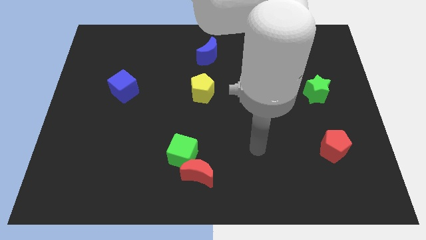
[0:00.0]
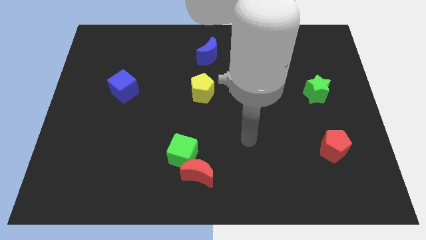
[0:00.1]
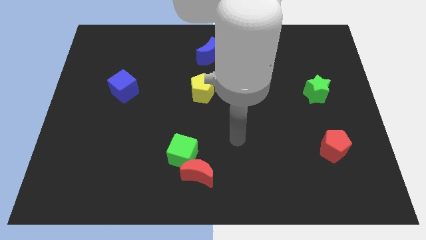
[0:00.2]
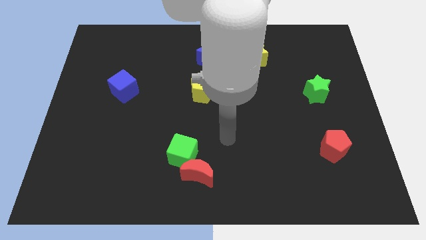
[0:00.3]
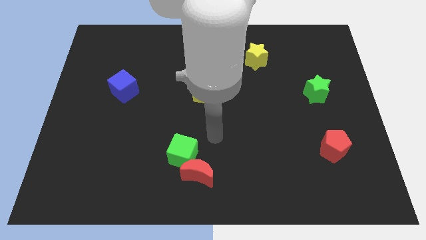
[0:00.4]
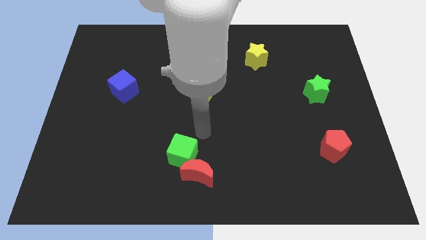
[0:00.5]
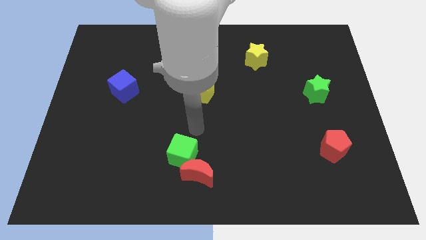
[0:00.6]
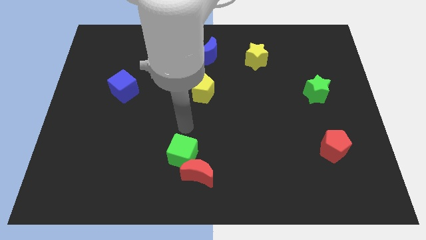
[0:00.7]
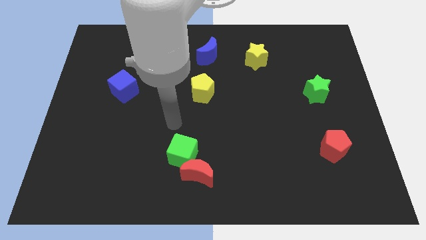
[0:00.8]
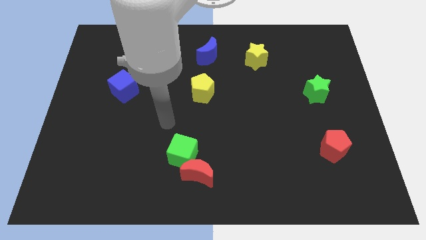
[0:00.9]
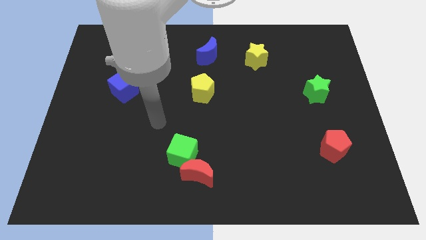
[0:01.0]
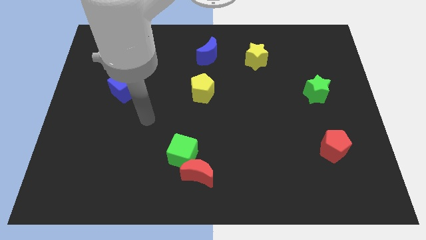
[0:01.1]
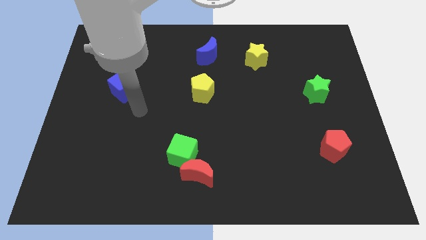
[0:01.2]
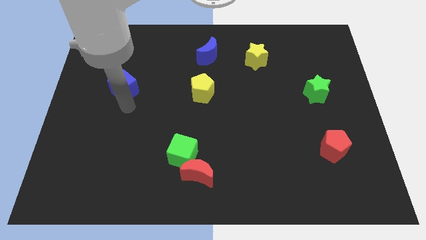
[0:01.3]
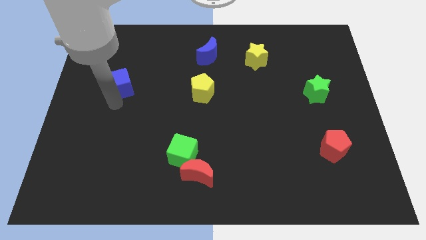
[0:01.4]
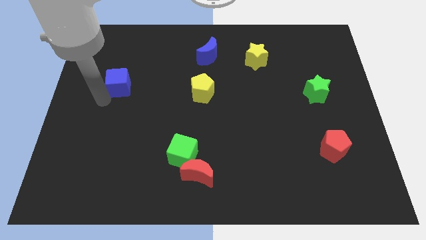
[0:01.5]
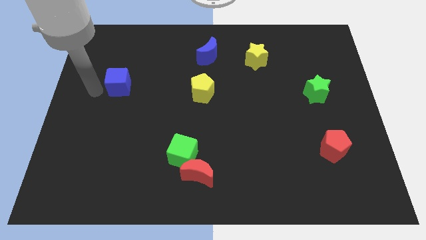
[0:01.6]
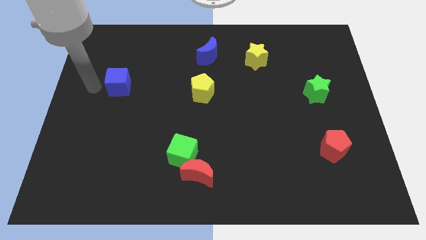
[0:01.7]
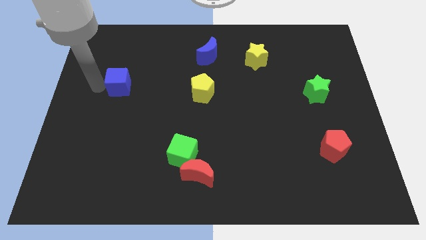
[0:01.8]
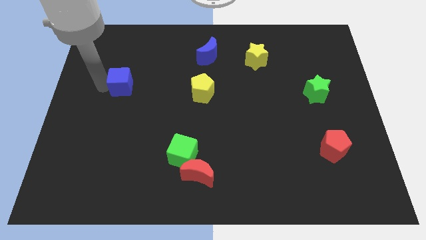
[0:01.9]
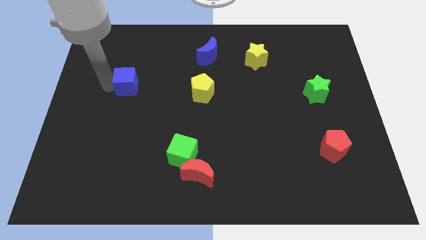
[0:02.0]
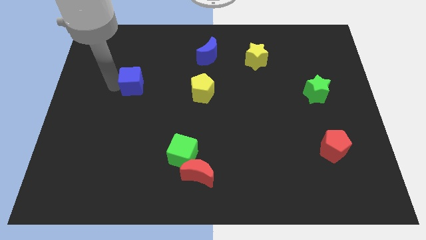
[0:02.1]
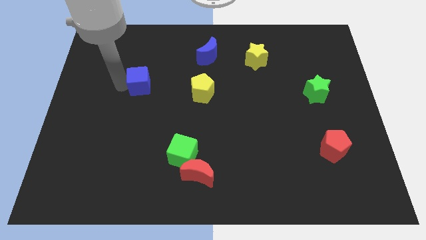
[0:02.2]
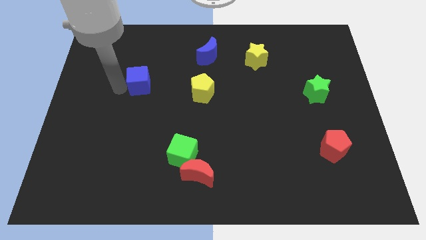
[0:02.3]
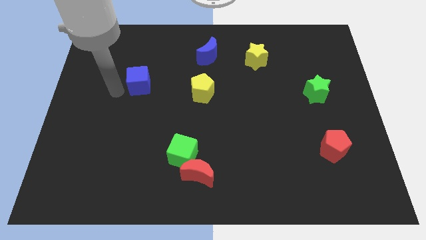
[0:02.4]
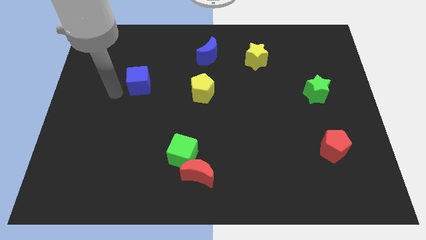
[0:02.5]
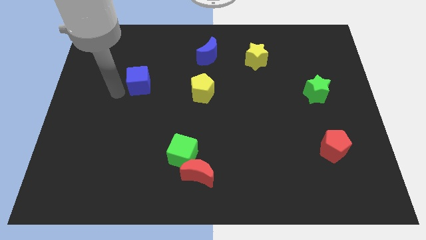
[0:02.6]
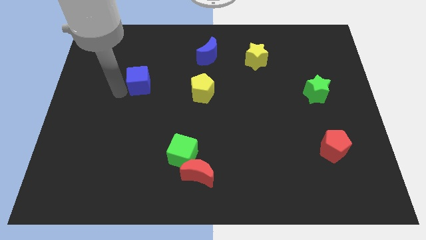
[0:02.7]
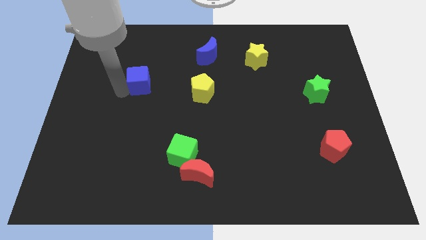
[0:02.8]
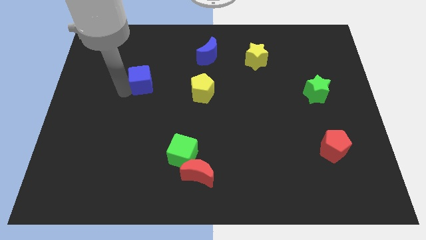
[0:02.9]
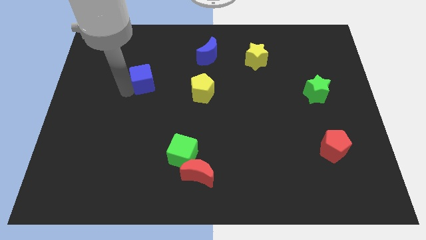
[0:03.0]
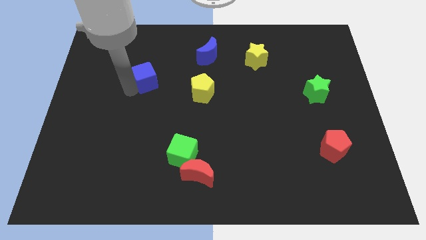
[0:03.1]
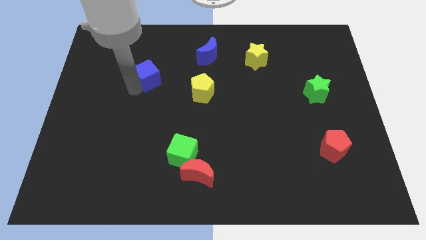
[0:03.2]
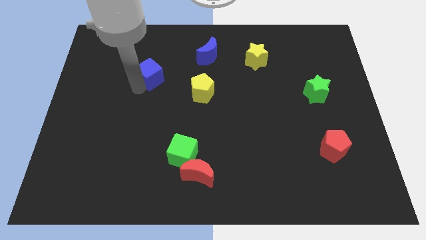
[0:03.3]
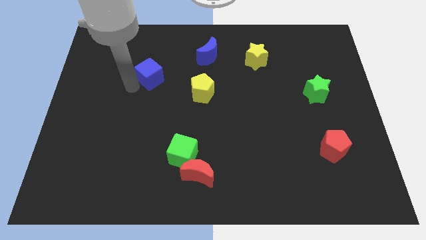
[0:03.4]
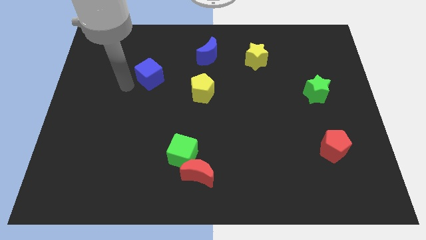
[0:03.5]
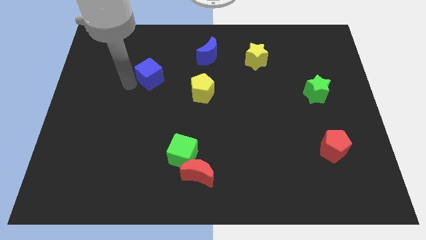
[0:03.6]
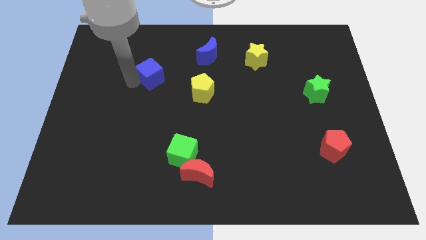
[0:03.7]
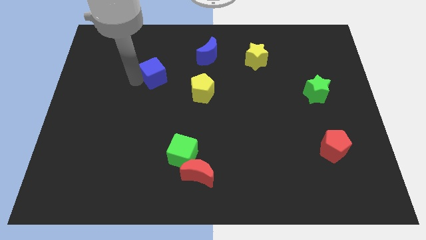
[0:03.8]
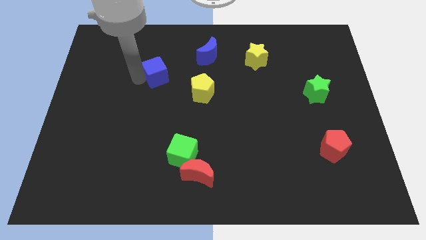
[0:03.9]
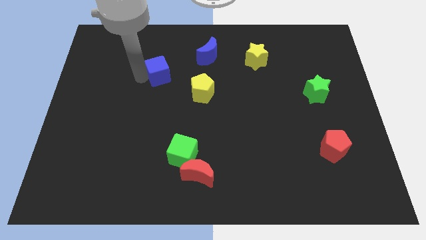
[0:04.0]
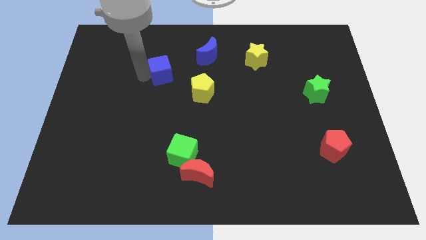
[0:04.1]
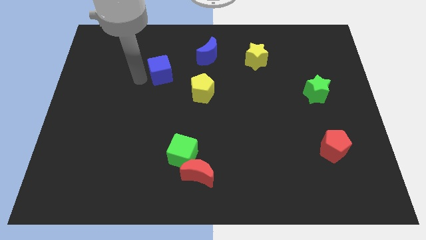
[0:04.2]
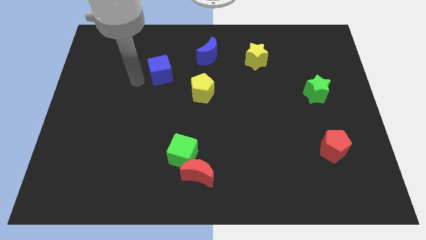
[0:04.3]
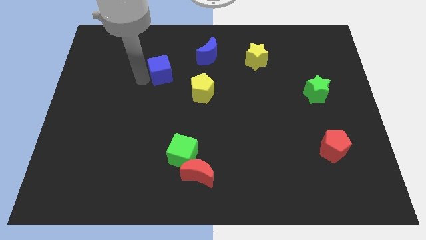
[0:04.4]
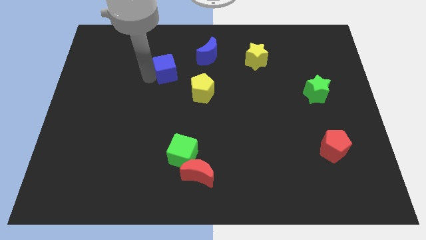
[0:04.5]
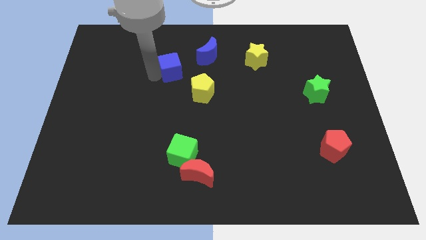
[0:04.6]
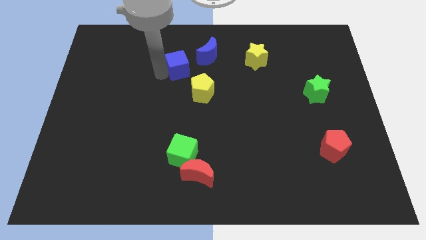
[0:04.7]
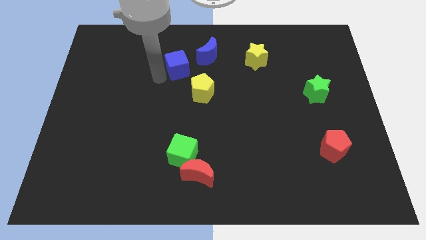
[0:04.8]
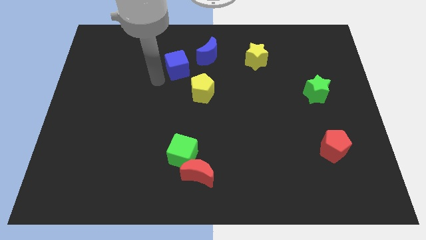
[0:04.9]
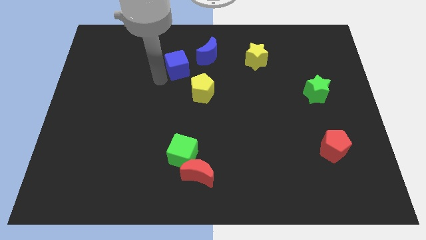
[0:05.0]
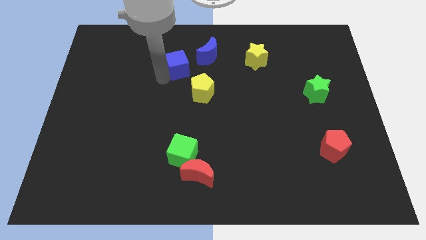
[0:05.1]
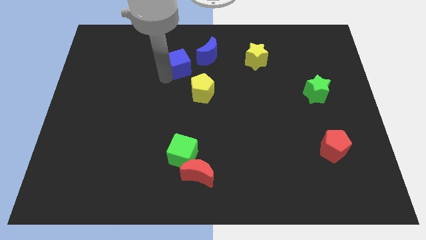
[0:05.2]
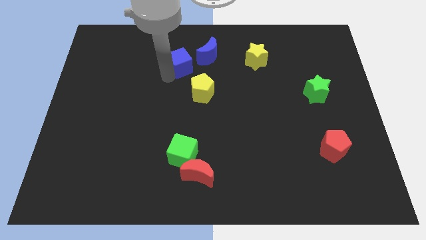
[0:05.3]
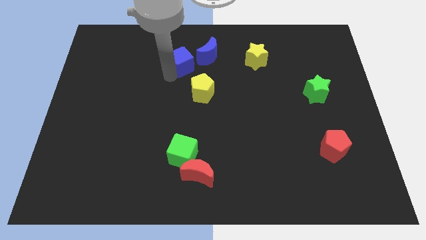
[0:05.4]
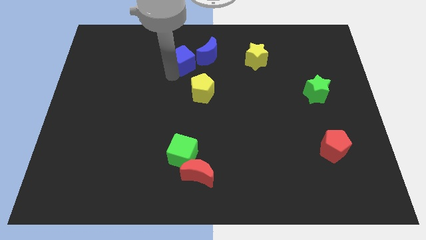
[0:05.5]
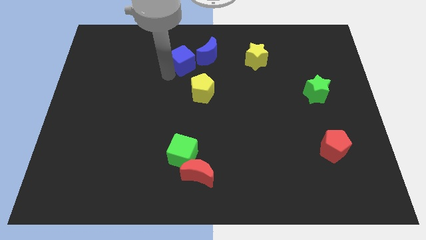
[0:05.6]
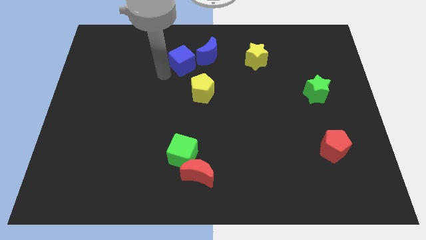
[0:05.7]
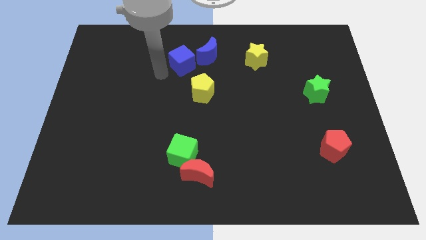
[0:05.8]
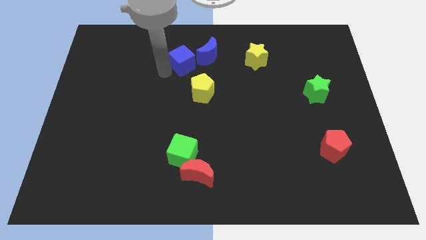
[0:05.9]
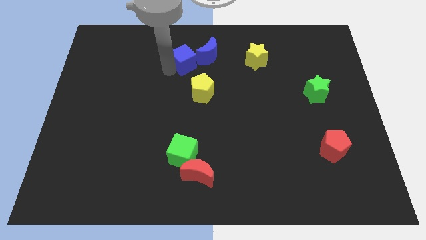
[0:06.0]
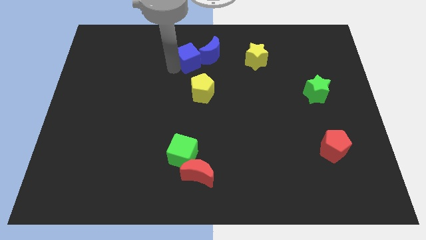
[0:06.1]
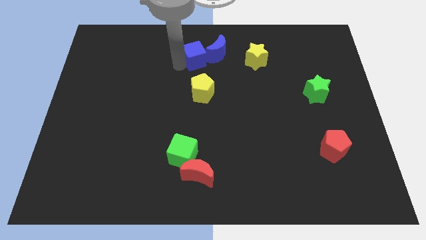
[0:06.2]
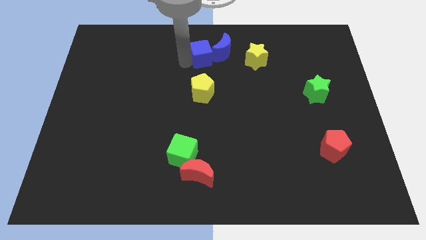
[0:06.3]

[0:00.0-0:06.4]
move the blue cube towards the blue moon
